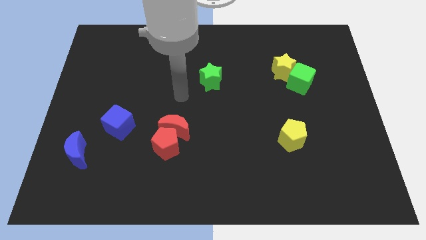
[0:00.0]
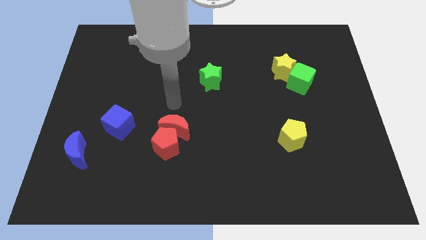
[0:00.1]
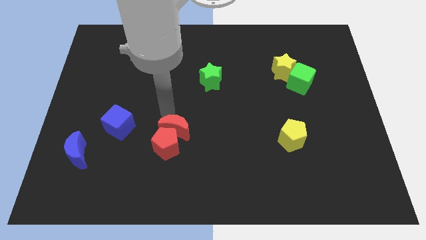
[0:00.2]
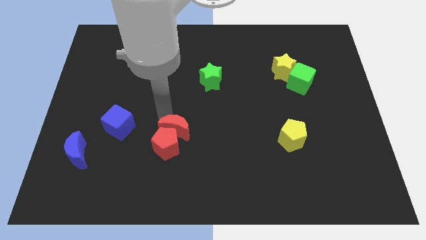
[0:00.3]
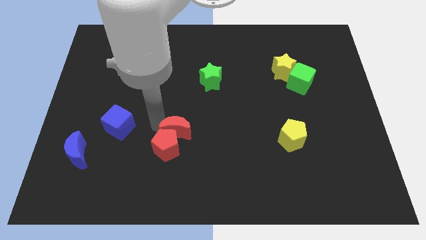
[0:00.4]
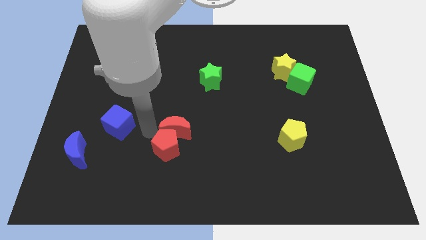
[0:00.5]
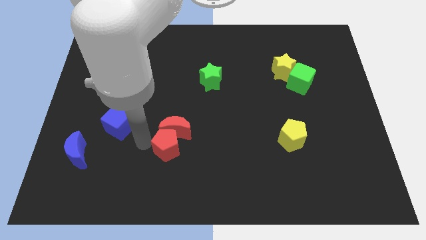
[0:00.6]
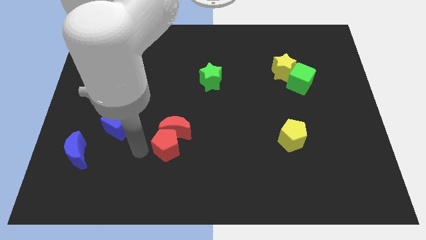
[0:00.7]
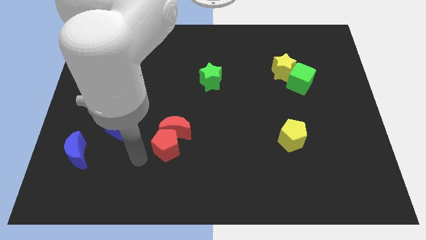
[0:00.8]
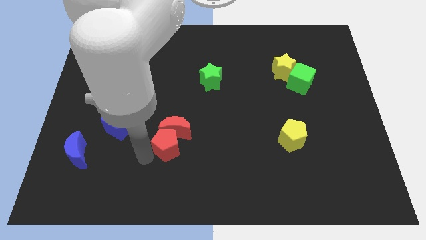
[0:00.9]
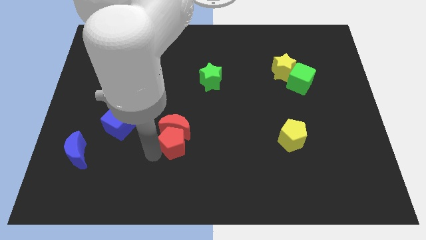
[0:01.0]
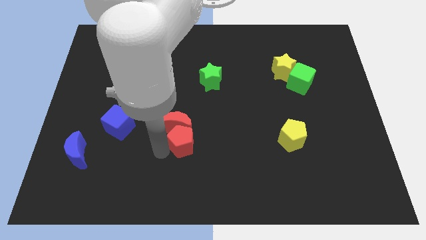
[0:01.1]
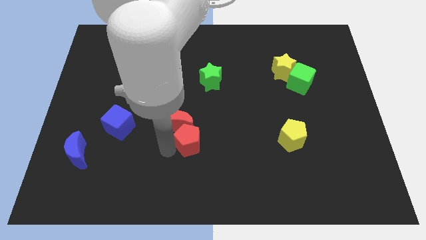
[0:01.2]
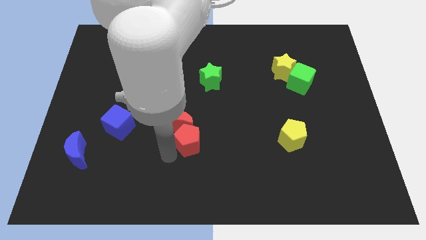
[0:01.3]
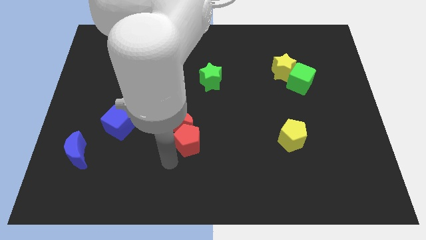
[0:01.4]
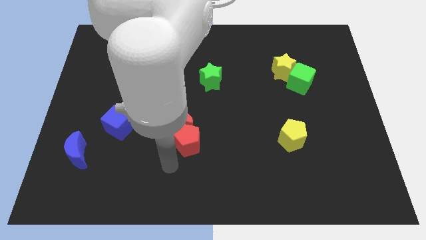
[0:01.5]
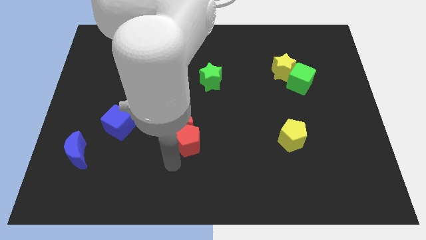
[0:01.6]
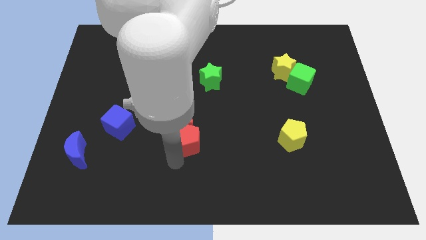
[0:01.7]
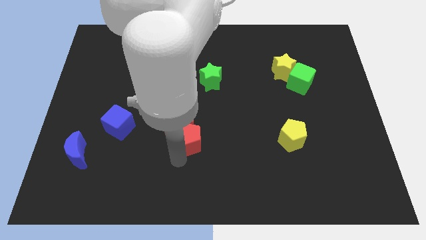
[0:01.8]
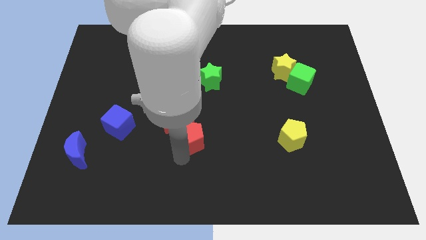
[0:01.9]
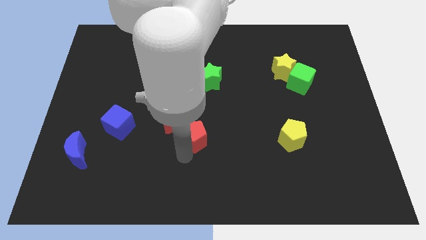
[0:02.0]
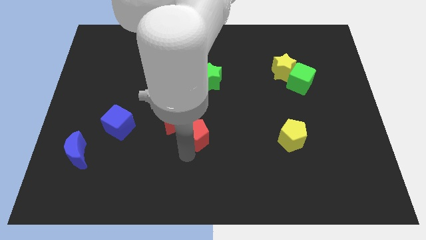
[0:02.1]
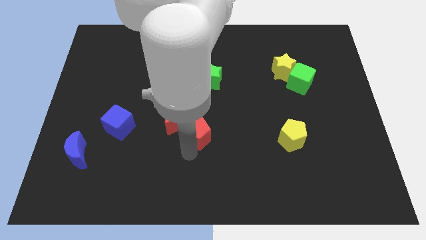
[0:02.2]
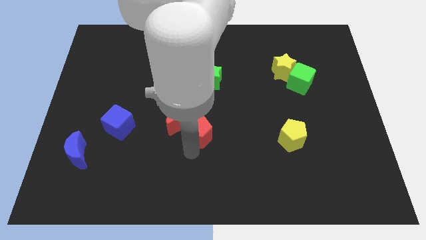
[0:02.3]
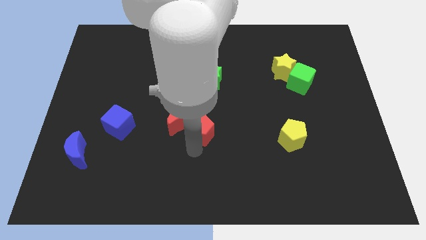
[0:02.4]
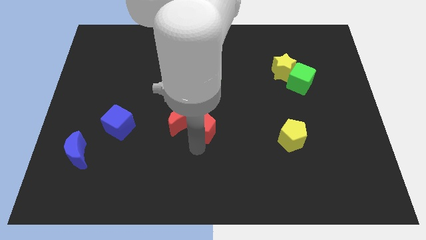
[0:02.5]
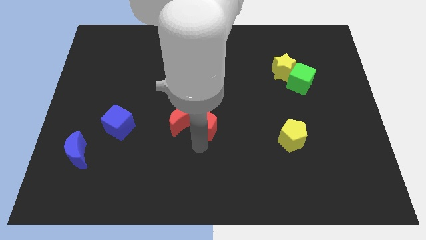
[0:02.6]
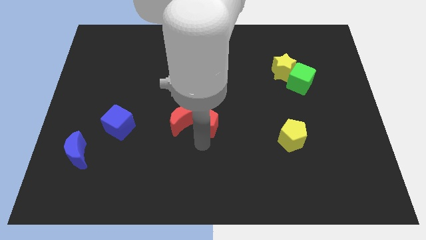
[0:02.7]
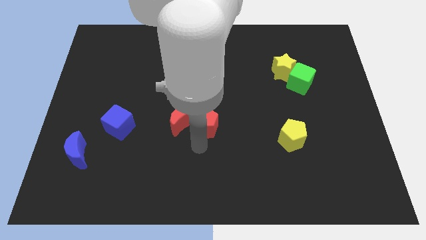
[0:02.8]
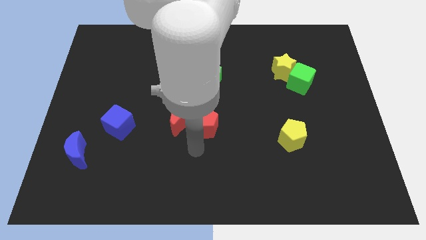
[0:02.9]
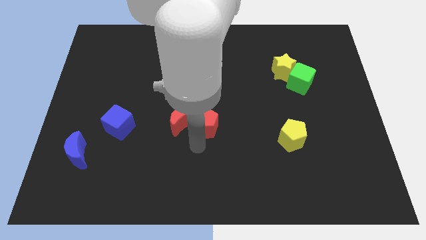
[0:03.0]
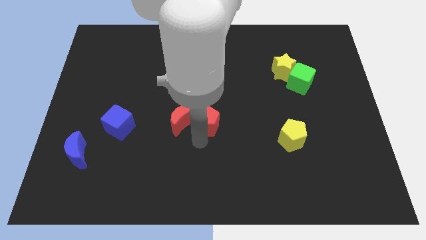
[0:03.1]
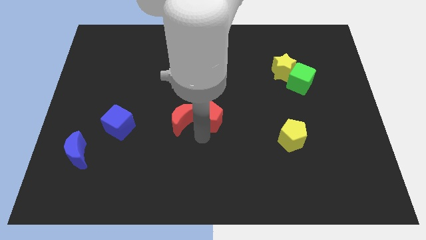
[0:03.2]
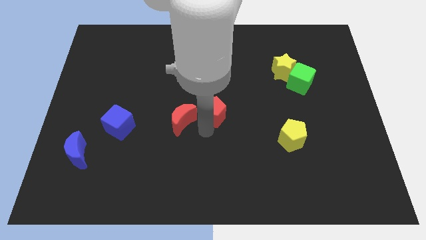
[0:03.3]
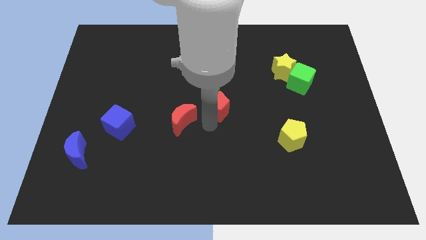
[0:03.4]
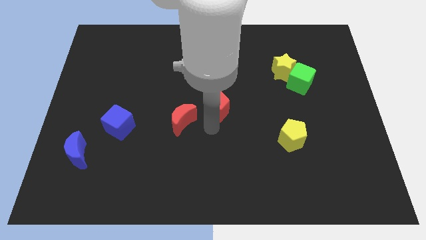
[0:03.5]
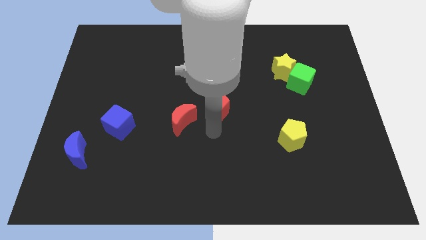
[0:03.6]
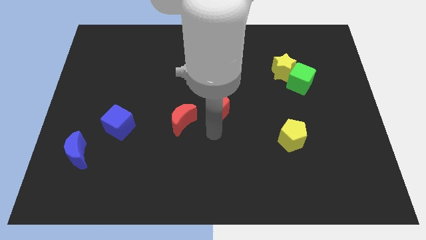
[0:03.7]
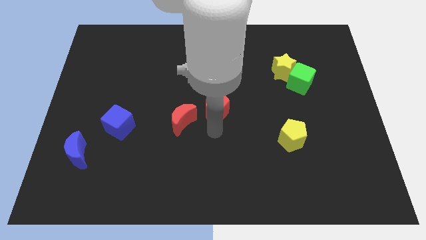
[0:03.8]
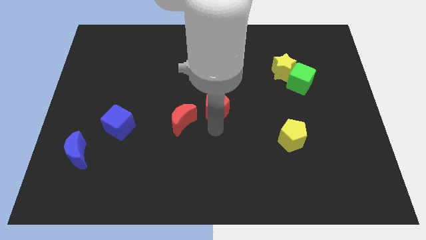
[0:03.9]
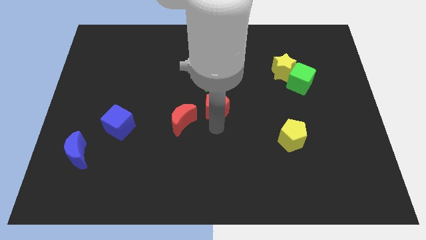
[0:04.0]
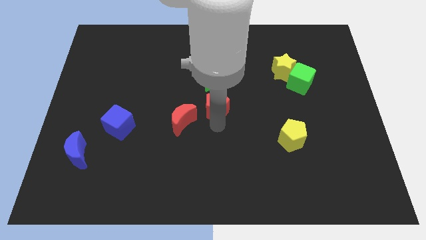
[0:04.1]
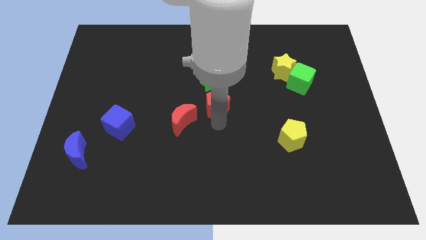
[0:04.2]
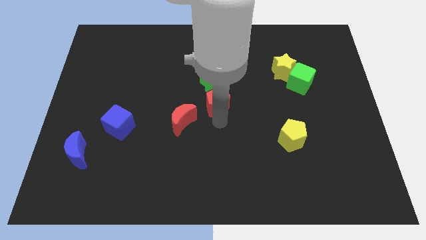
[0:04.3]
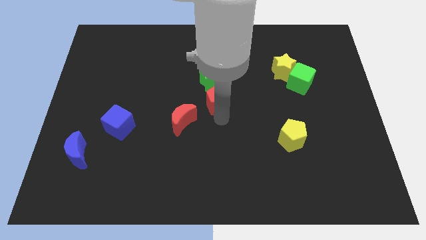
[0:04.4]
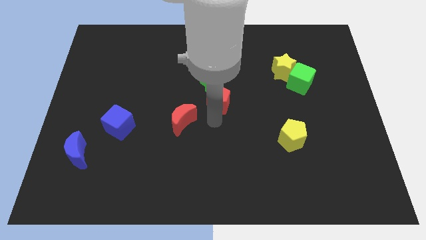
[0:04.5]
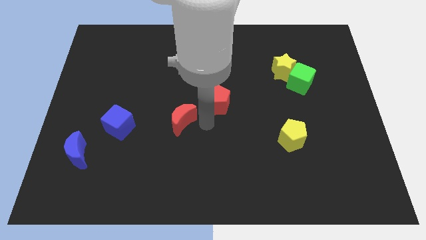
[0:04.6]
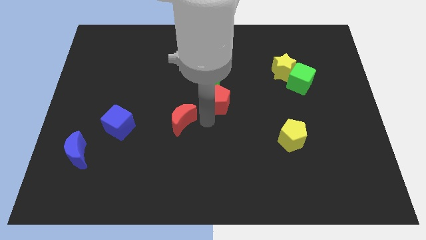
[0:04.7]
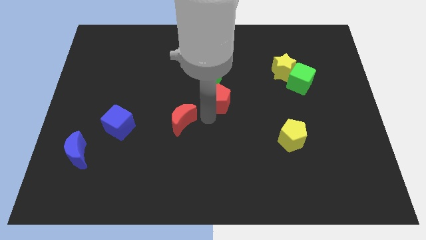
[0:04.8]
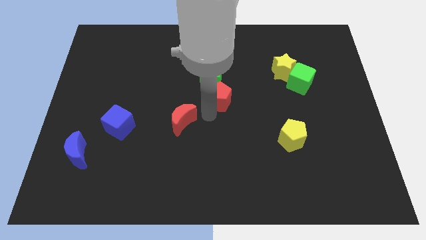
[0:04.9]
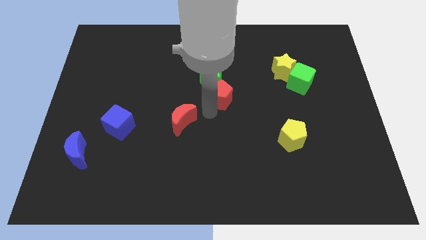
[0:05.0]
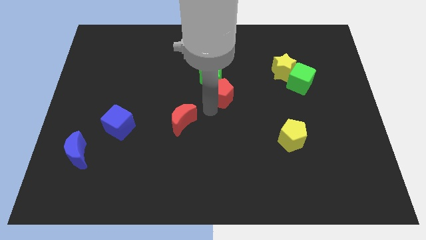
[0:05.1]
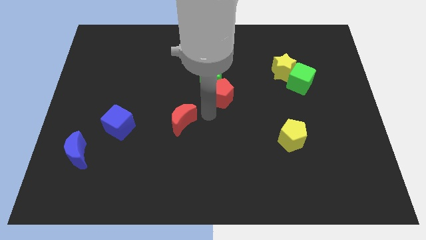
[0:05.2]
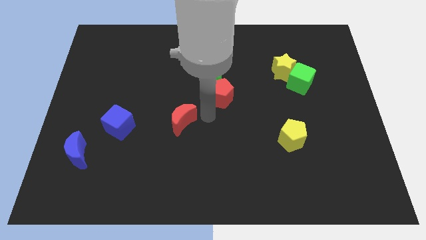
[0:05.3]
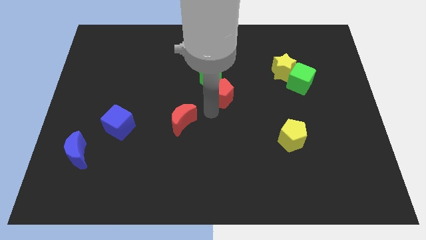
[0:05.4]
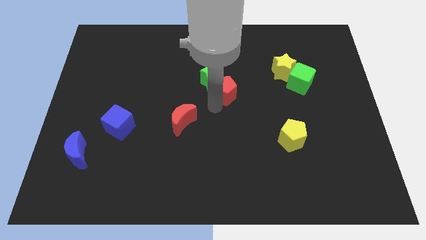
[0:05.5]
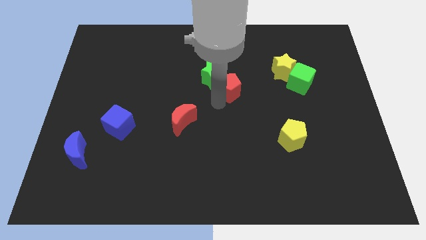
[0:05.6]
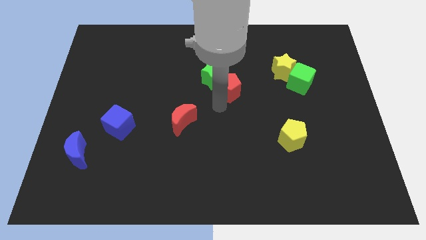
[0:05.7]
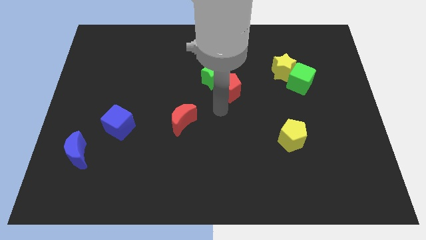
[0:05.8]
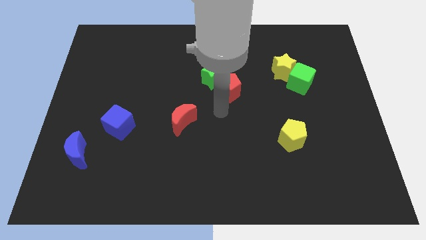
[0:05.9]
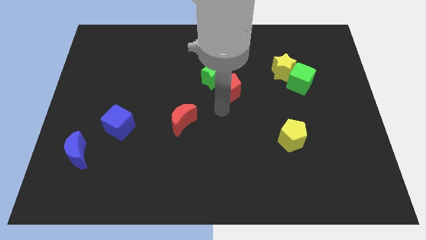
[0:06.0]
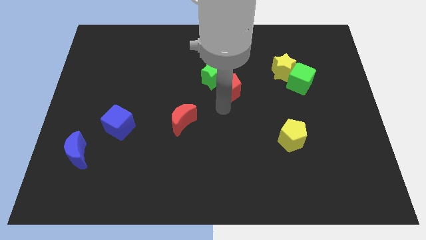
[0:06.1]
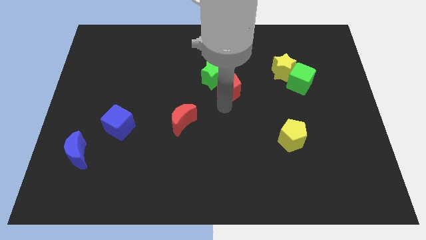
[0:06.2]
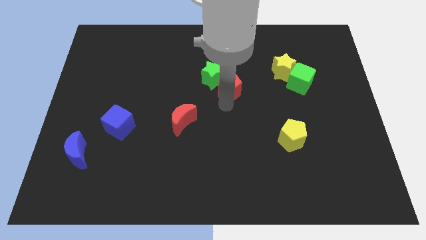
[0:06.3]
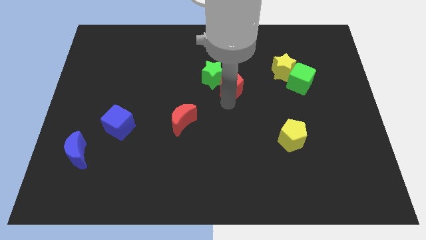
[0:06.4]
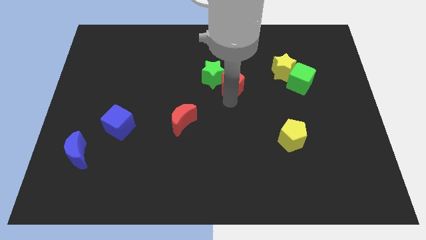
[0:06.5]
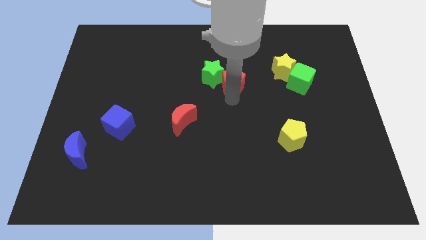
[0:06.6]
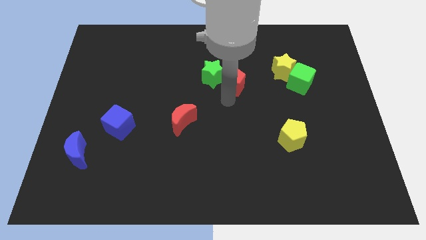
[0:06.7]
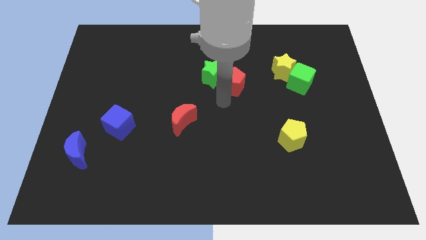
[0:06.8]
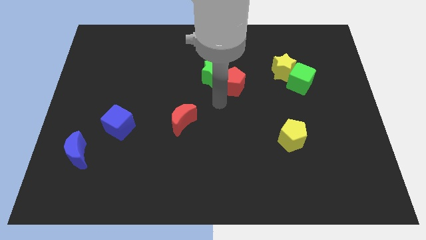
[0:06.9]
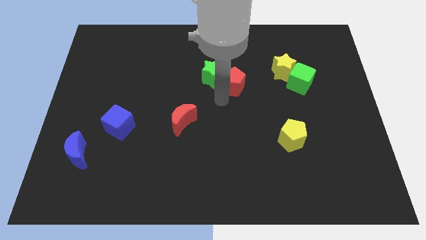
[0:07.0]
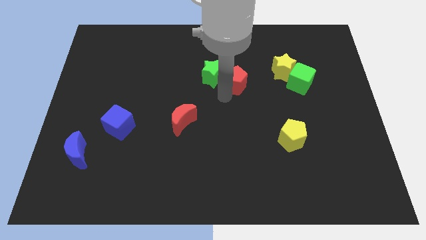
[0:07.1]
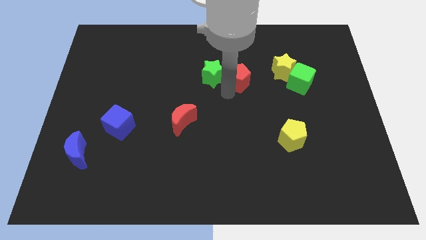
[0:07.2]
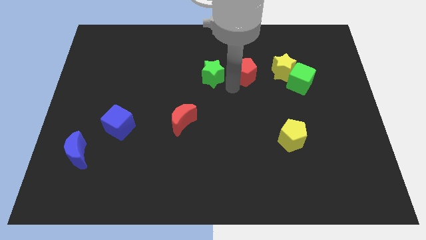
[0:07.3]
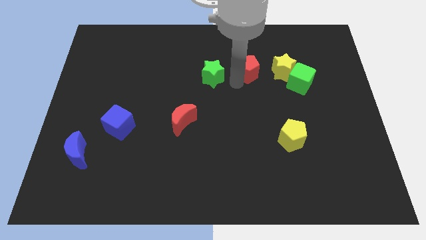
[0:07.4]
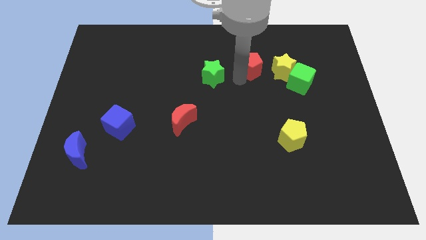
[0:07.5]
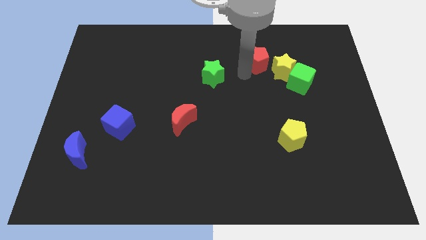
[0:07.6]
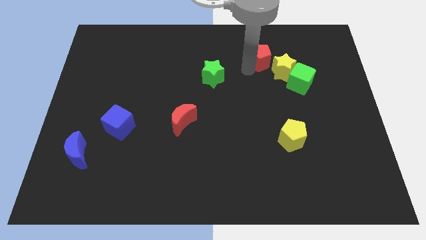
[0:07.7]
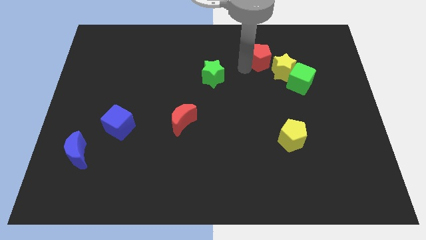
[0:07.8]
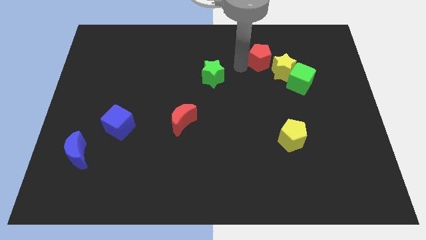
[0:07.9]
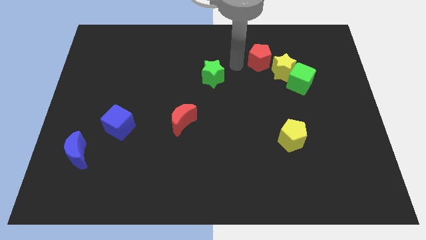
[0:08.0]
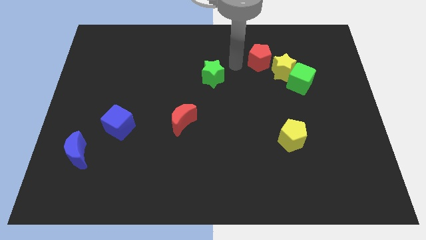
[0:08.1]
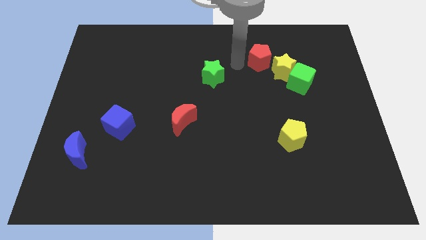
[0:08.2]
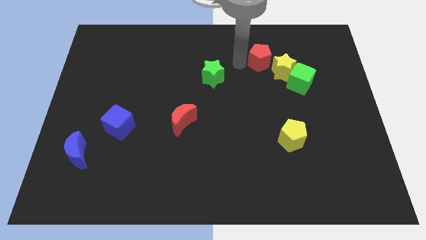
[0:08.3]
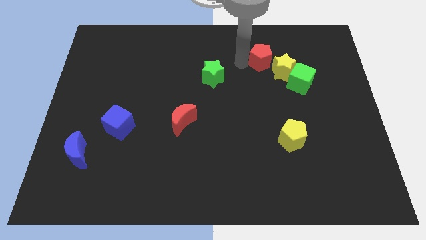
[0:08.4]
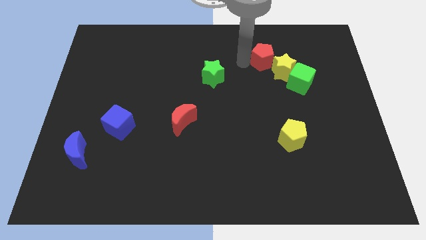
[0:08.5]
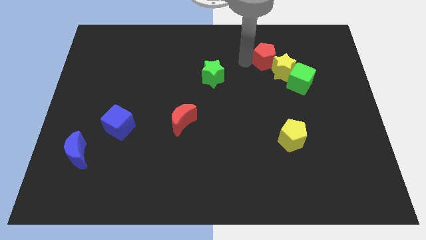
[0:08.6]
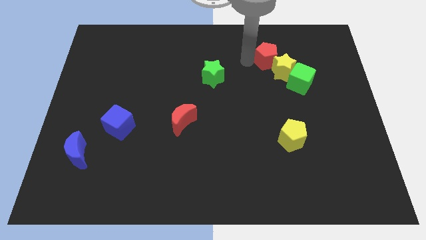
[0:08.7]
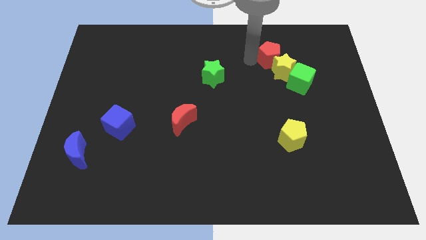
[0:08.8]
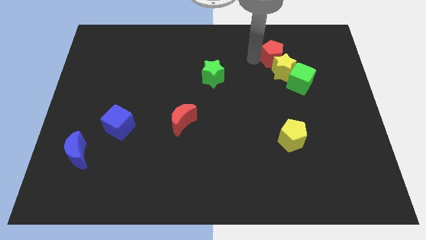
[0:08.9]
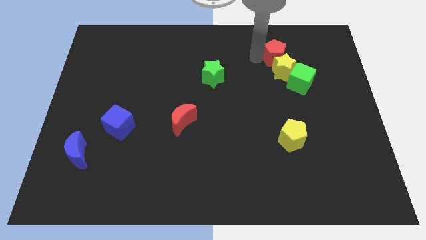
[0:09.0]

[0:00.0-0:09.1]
put the red pentagon to the top right of the yellow star
